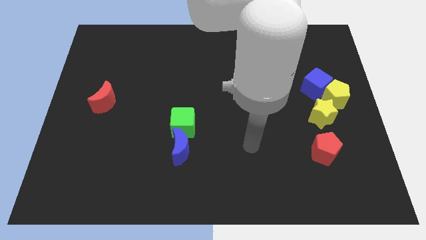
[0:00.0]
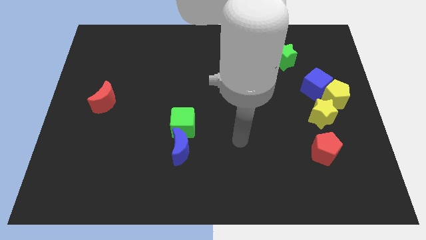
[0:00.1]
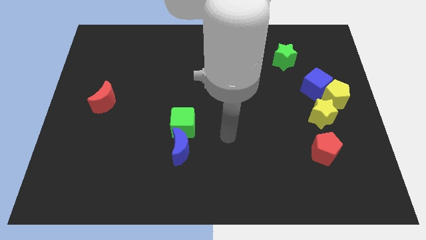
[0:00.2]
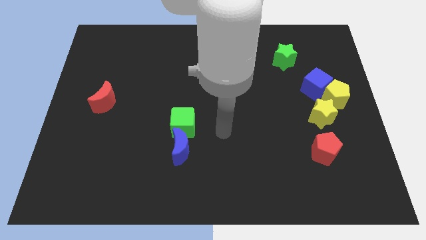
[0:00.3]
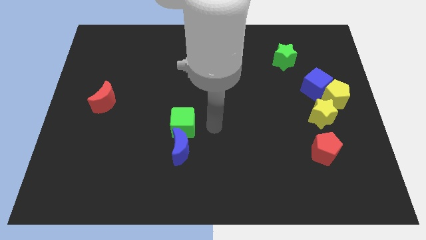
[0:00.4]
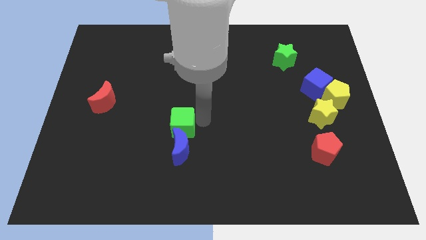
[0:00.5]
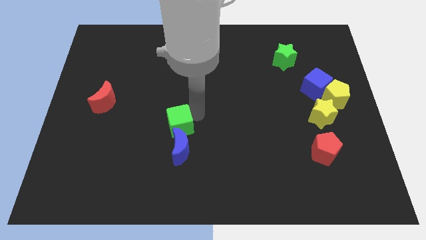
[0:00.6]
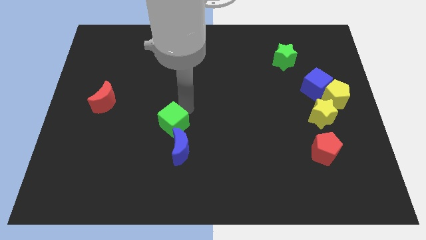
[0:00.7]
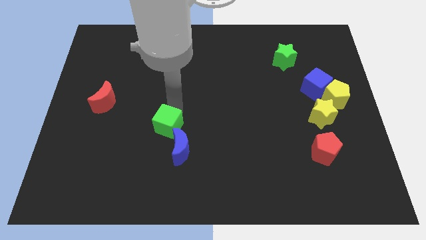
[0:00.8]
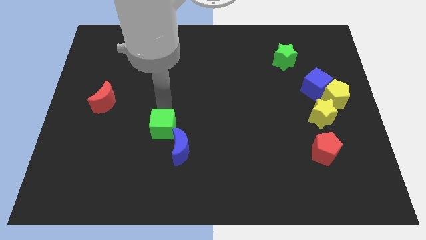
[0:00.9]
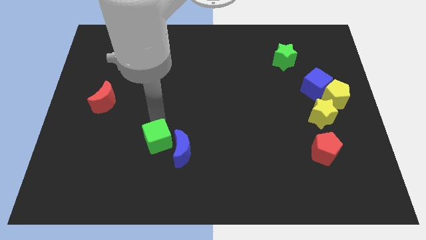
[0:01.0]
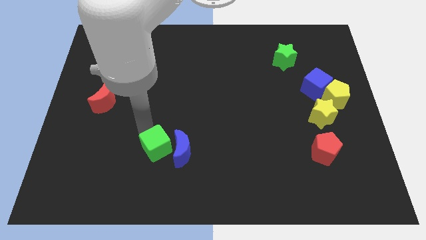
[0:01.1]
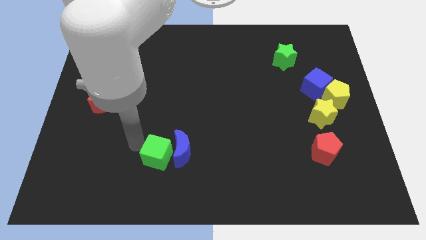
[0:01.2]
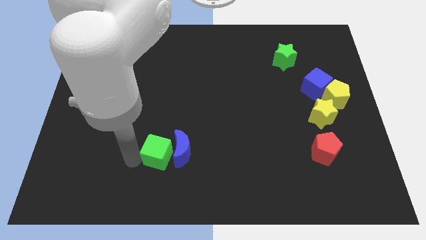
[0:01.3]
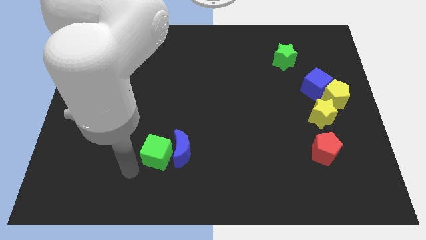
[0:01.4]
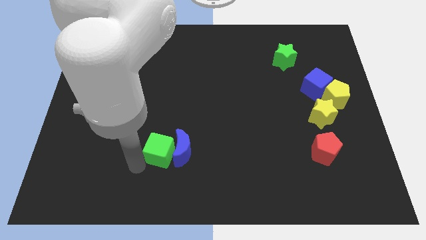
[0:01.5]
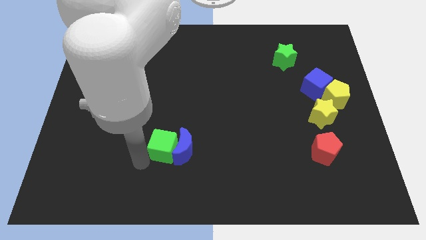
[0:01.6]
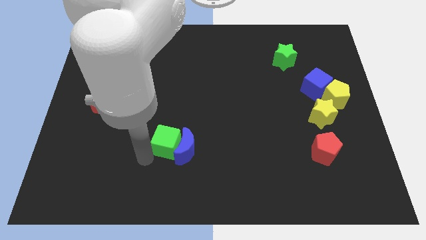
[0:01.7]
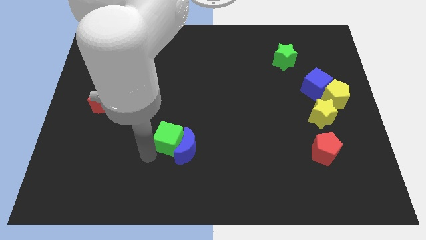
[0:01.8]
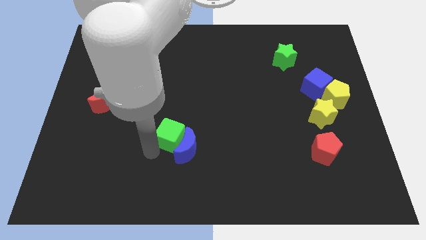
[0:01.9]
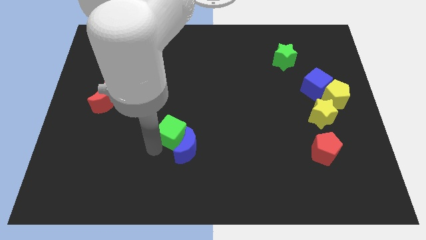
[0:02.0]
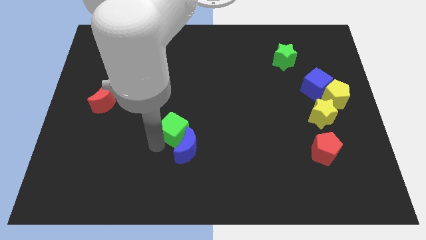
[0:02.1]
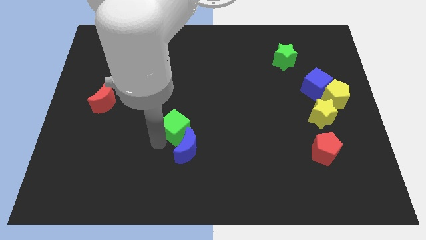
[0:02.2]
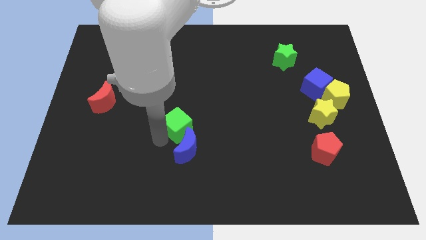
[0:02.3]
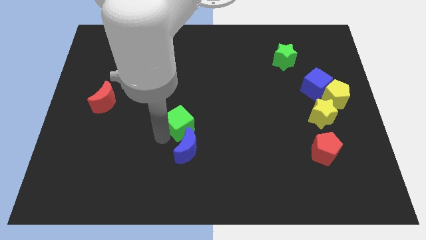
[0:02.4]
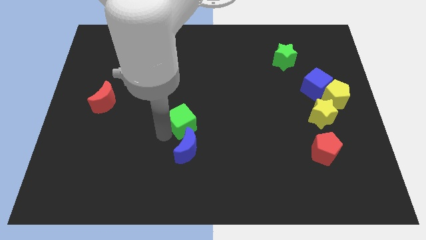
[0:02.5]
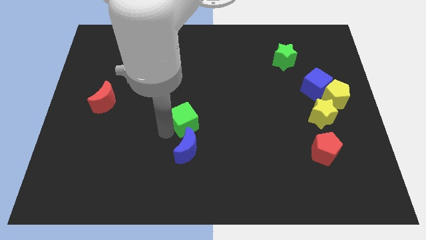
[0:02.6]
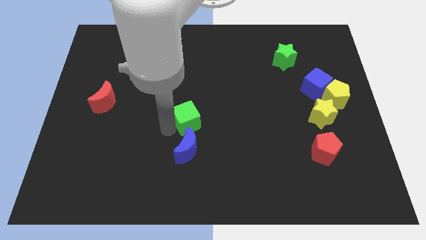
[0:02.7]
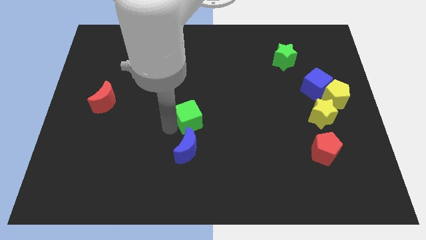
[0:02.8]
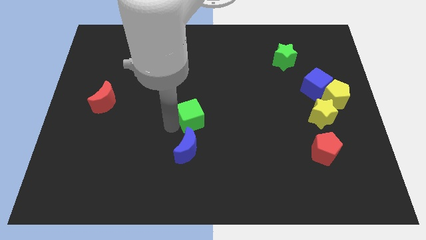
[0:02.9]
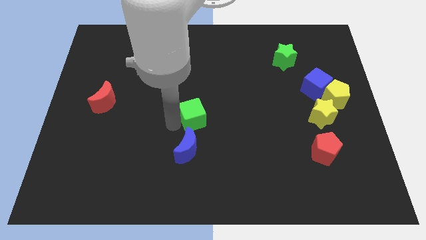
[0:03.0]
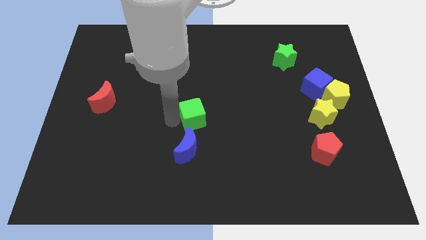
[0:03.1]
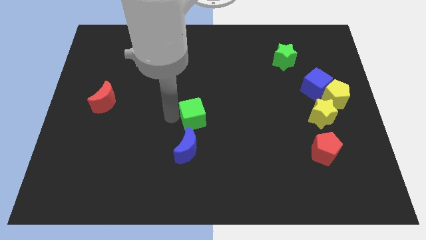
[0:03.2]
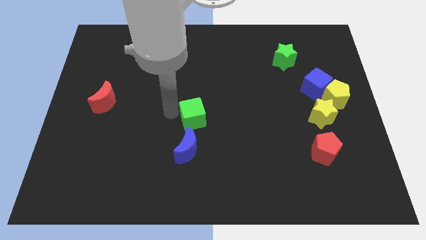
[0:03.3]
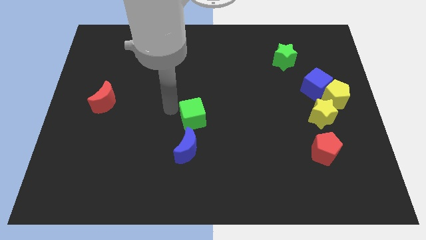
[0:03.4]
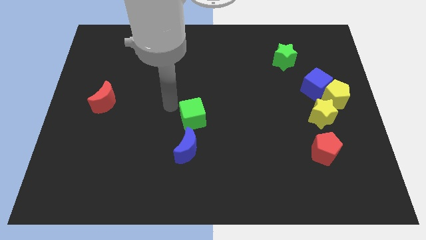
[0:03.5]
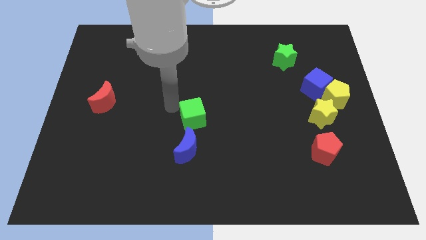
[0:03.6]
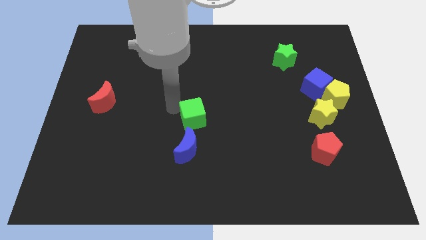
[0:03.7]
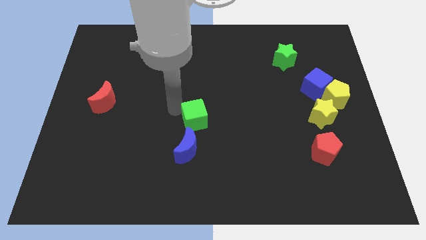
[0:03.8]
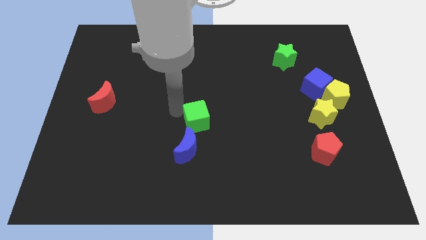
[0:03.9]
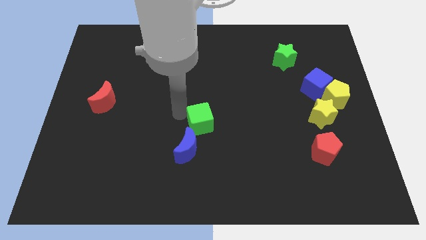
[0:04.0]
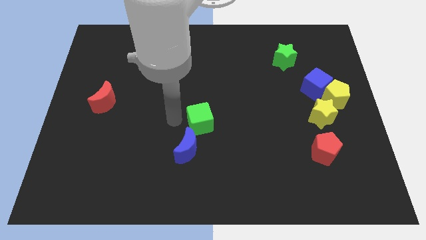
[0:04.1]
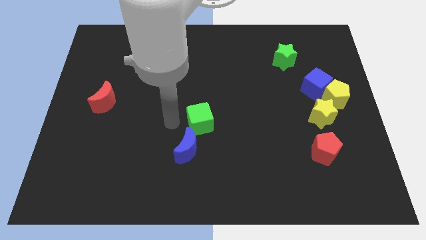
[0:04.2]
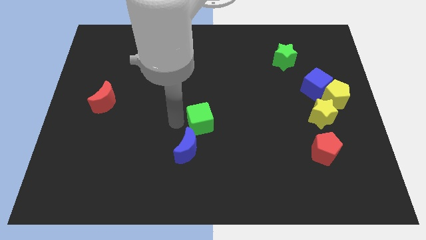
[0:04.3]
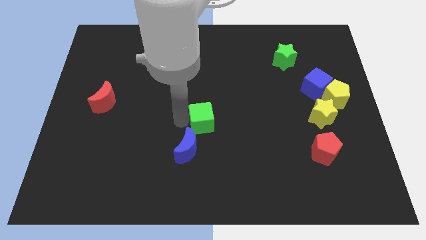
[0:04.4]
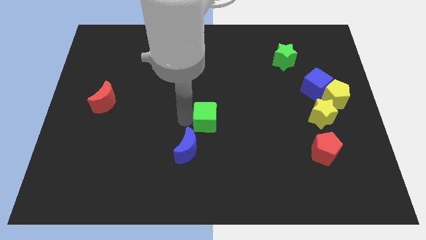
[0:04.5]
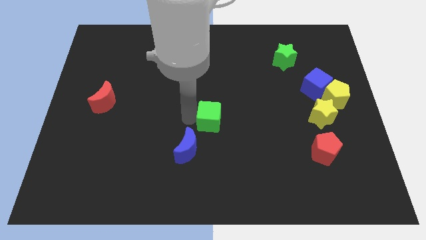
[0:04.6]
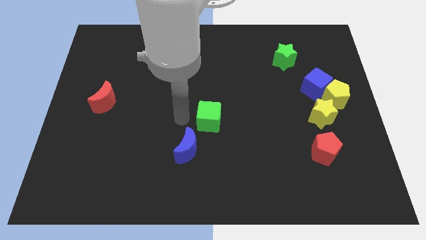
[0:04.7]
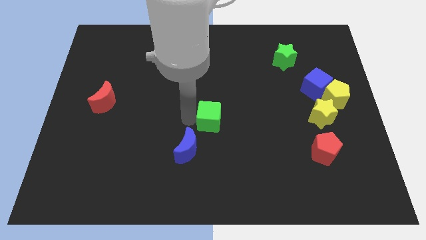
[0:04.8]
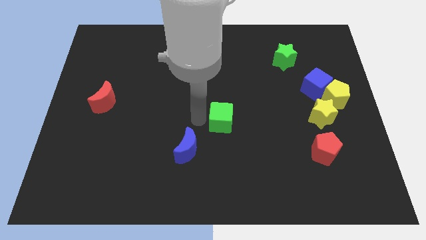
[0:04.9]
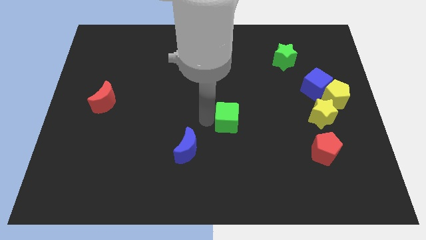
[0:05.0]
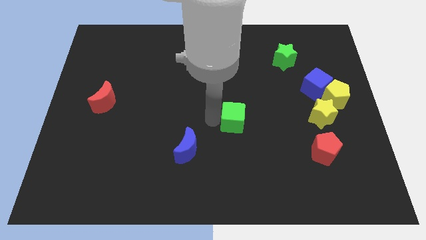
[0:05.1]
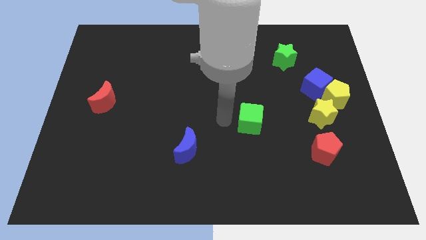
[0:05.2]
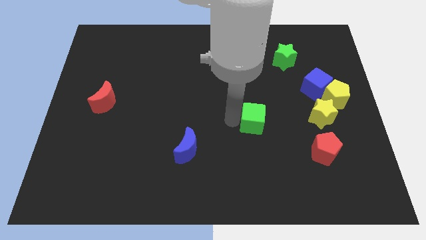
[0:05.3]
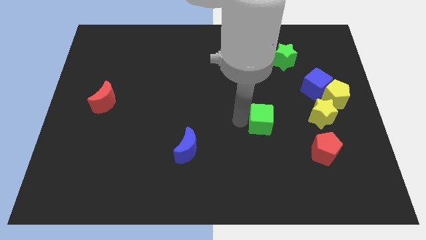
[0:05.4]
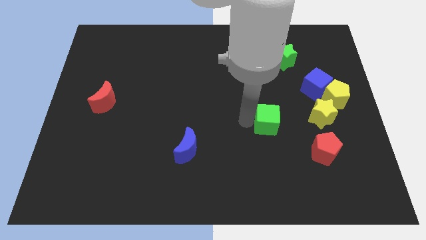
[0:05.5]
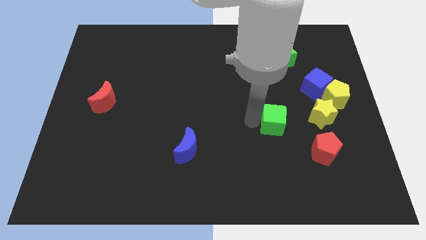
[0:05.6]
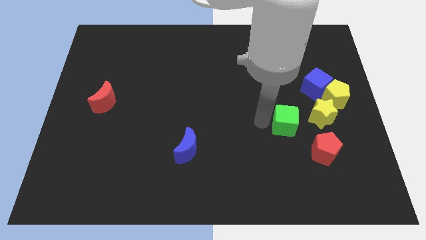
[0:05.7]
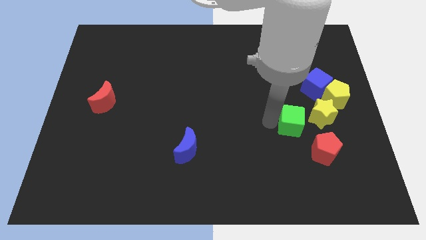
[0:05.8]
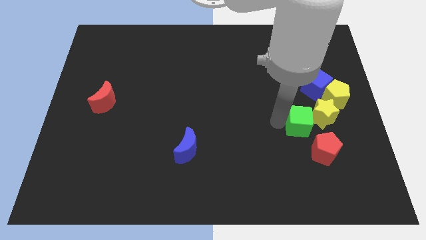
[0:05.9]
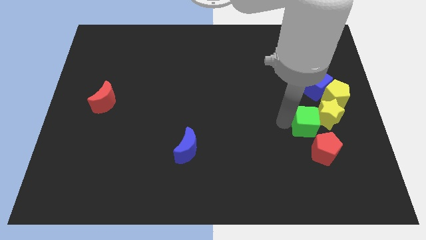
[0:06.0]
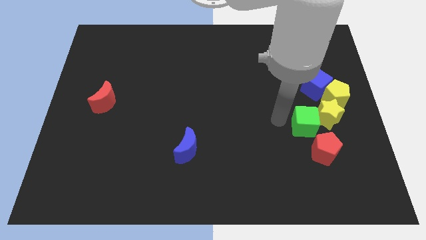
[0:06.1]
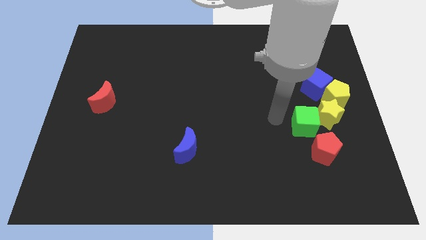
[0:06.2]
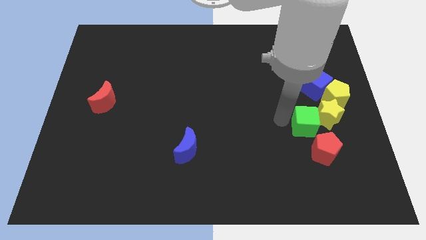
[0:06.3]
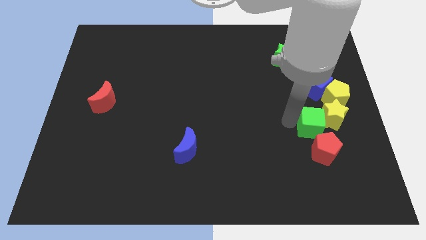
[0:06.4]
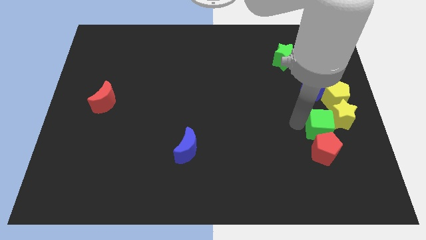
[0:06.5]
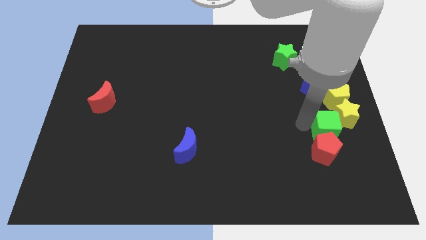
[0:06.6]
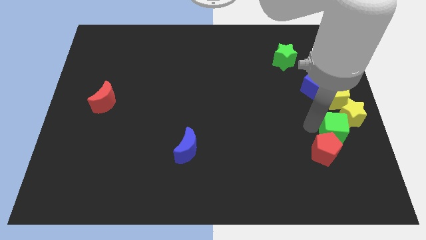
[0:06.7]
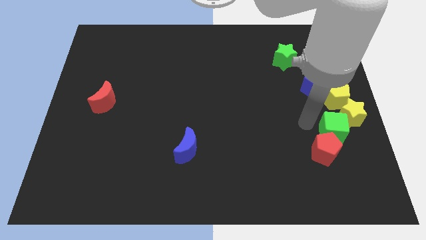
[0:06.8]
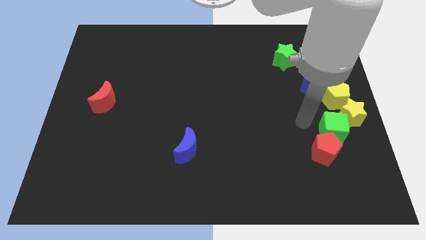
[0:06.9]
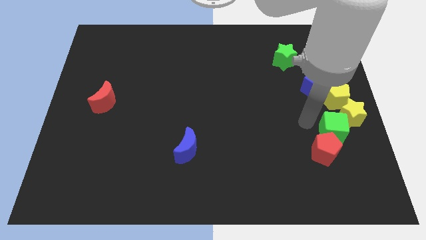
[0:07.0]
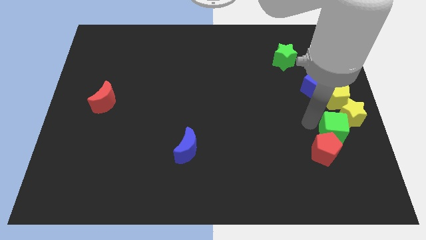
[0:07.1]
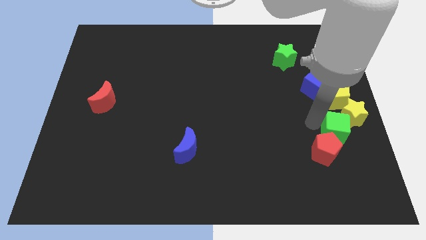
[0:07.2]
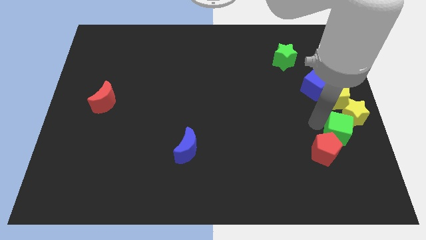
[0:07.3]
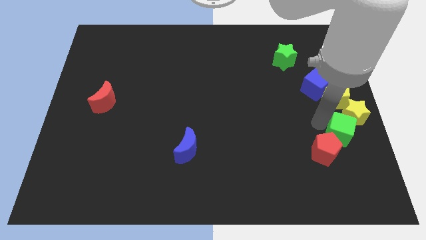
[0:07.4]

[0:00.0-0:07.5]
slide the green cube to the right side
